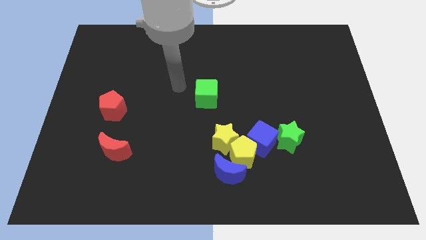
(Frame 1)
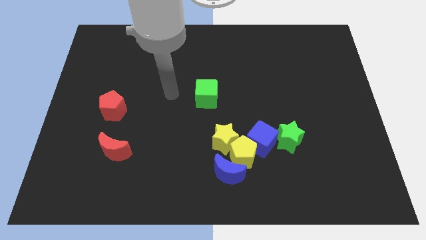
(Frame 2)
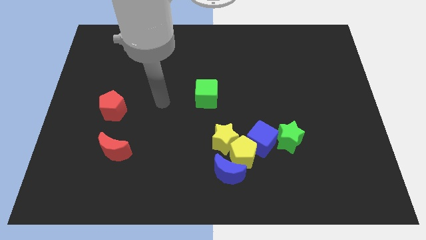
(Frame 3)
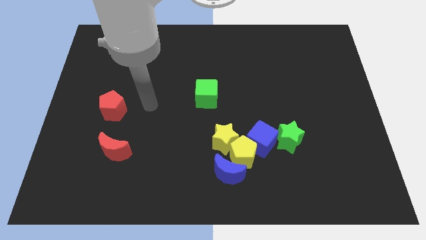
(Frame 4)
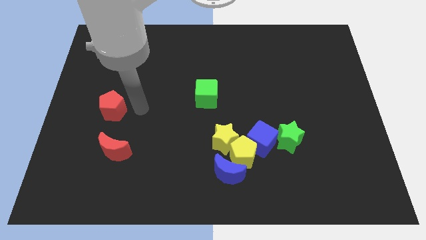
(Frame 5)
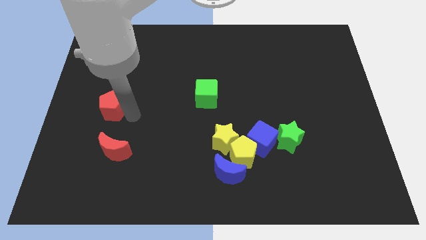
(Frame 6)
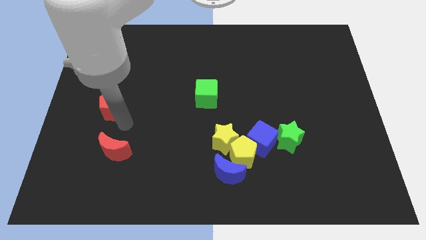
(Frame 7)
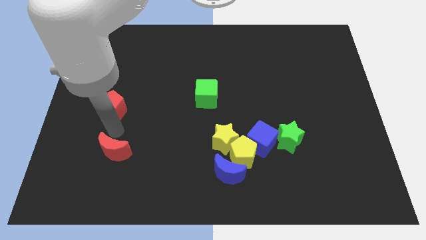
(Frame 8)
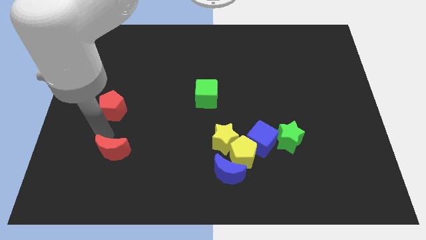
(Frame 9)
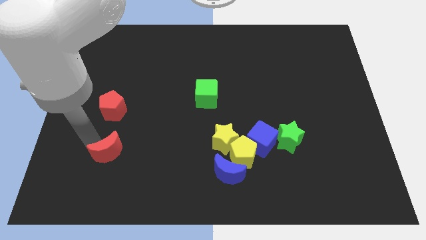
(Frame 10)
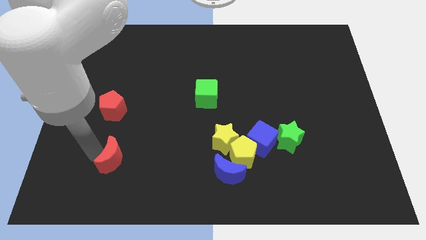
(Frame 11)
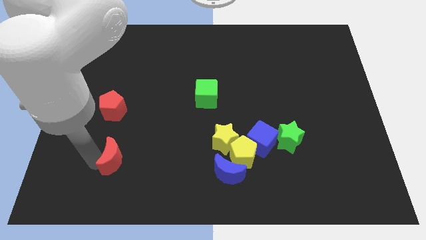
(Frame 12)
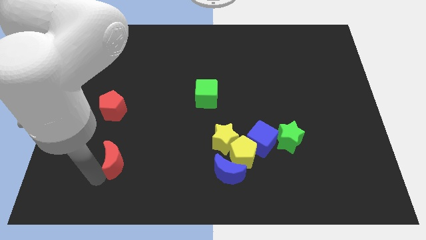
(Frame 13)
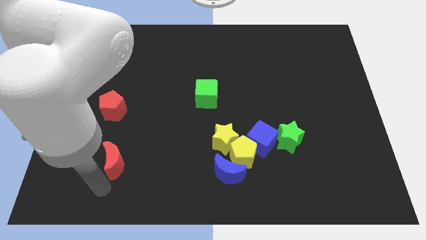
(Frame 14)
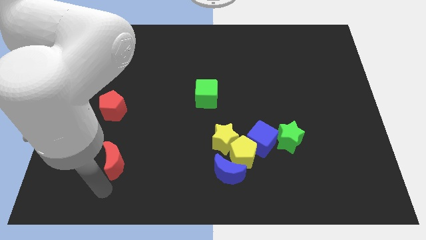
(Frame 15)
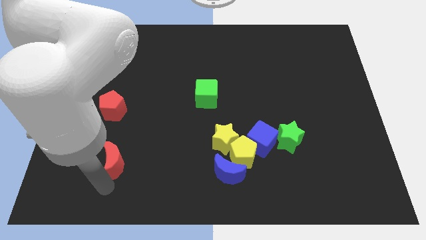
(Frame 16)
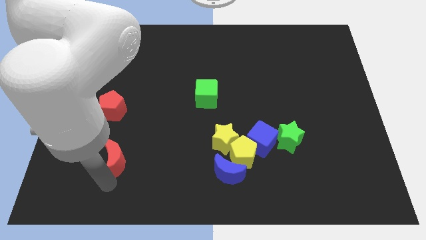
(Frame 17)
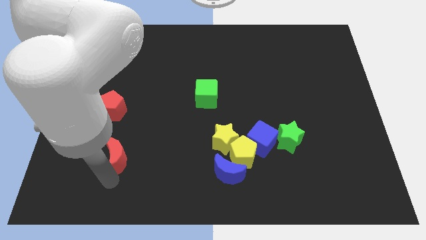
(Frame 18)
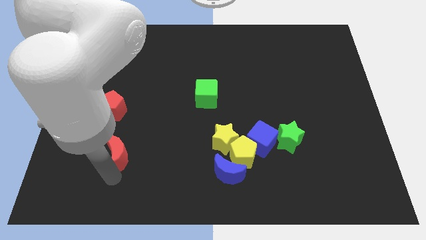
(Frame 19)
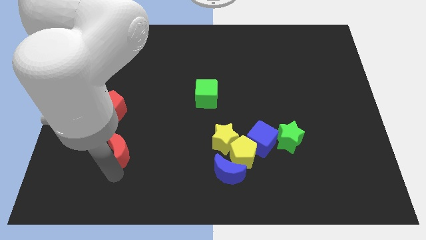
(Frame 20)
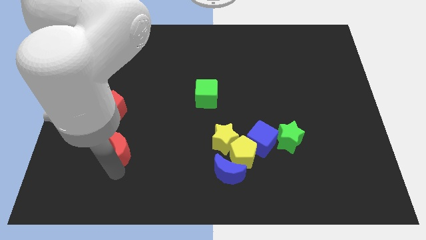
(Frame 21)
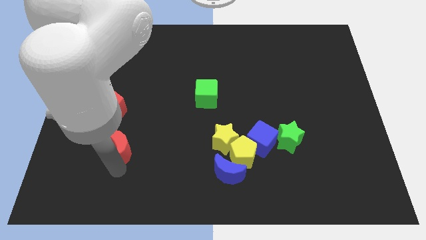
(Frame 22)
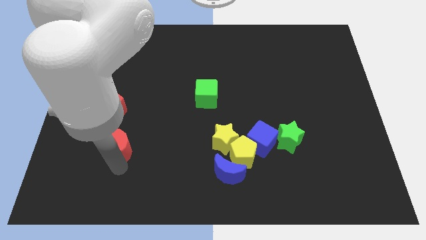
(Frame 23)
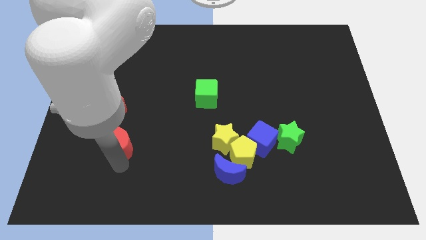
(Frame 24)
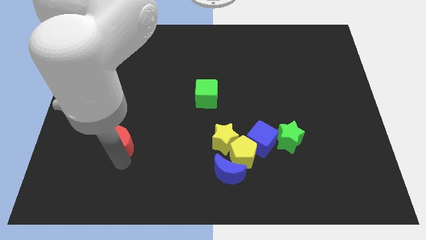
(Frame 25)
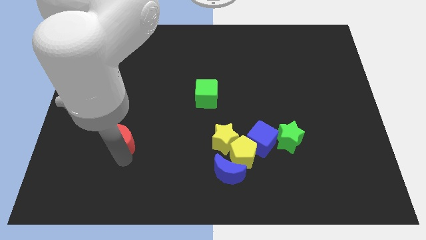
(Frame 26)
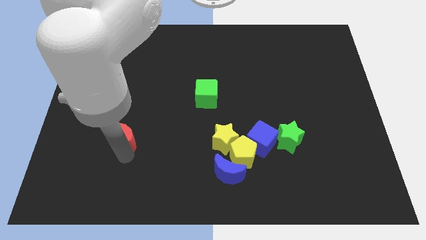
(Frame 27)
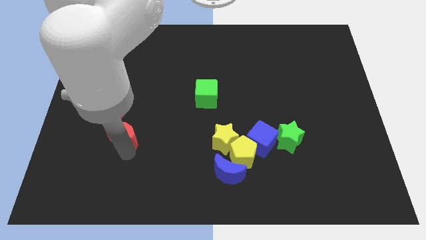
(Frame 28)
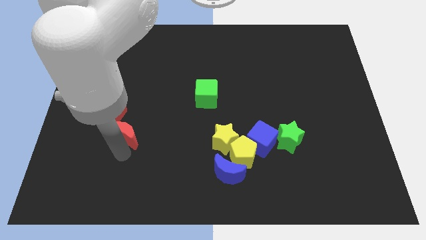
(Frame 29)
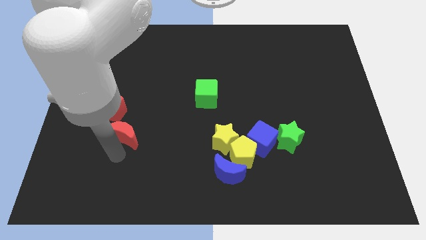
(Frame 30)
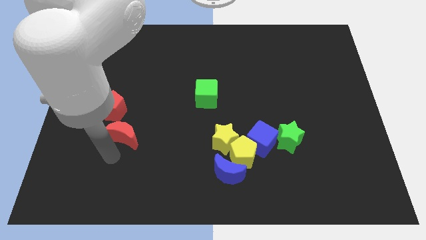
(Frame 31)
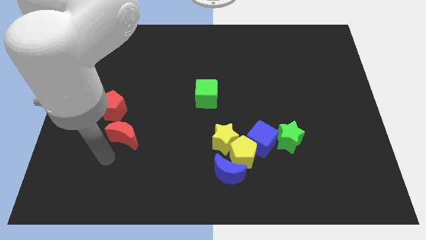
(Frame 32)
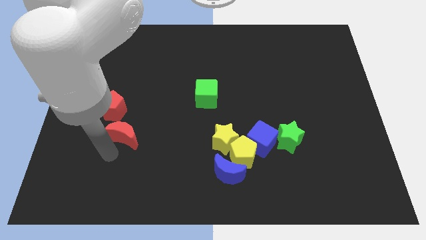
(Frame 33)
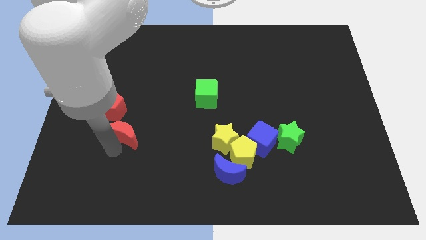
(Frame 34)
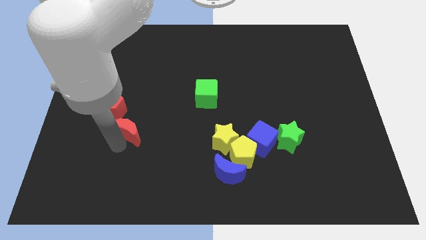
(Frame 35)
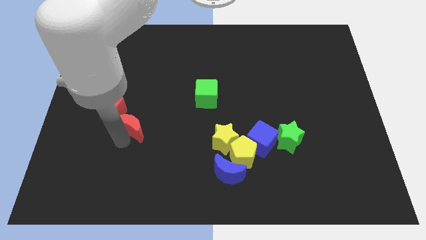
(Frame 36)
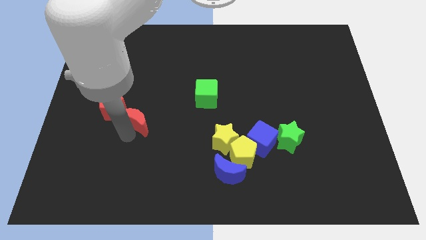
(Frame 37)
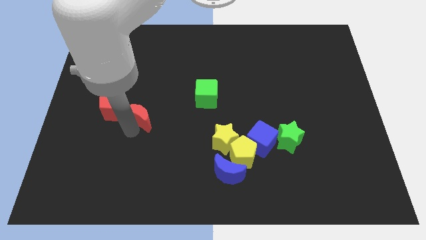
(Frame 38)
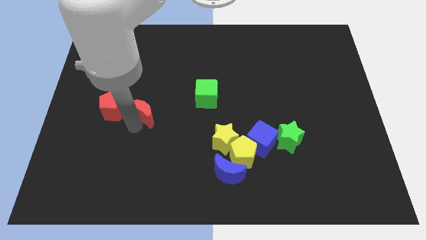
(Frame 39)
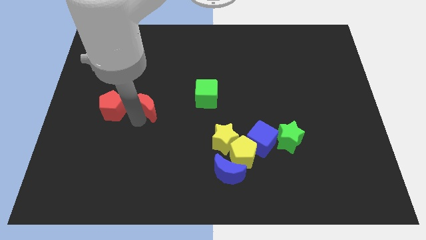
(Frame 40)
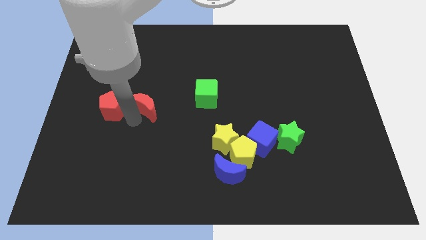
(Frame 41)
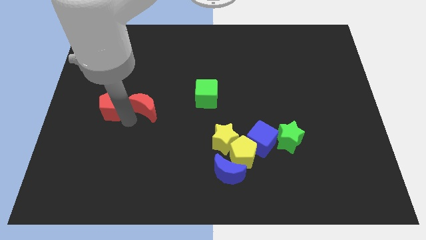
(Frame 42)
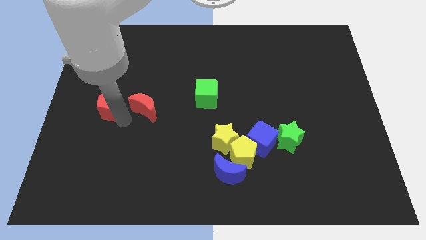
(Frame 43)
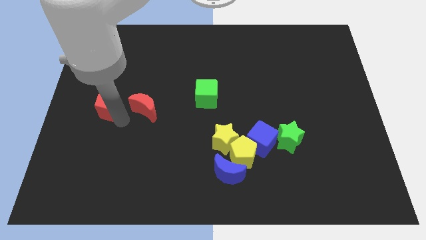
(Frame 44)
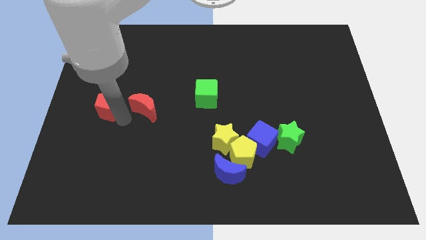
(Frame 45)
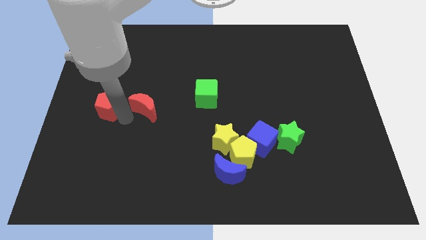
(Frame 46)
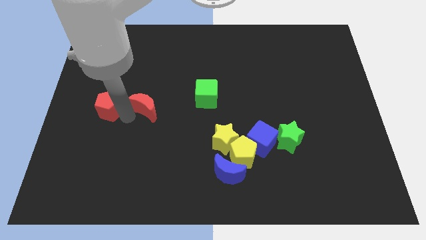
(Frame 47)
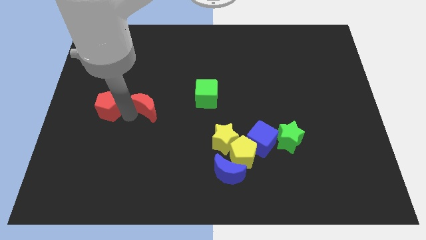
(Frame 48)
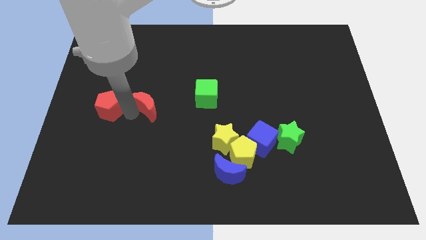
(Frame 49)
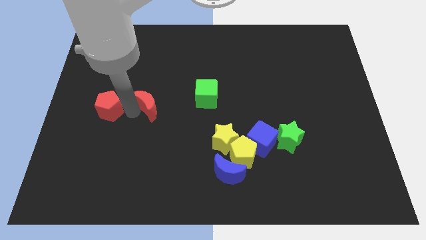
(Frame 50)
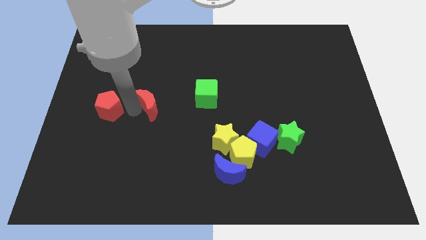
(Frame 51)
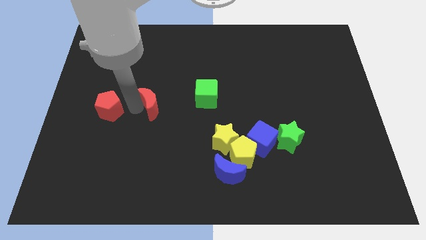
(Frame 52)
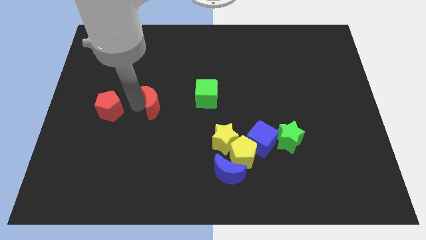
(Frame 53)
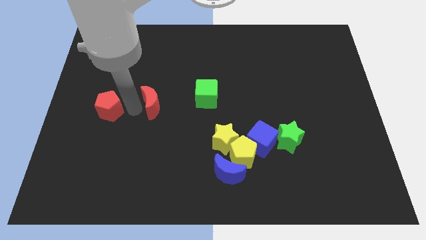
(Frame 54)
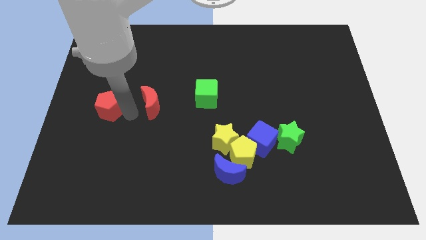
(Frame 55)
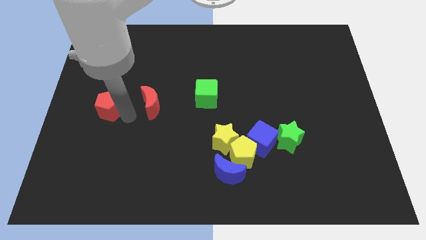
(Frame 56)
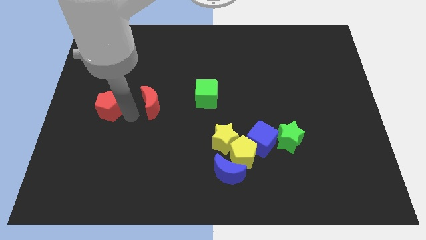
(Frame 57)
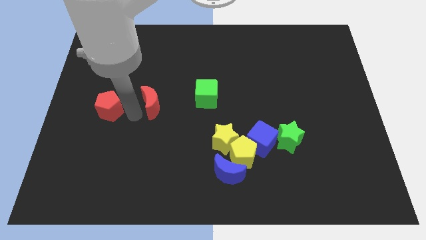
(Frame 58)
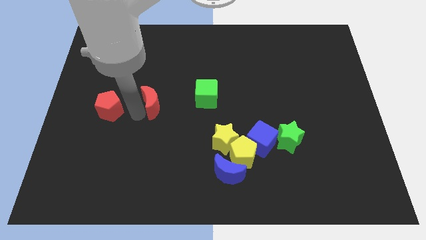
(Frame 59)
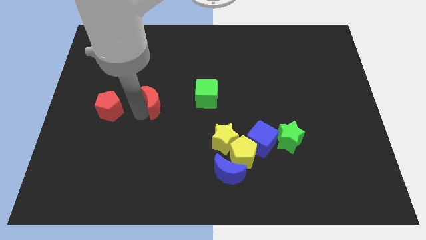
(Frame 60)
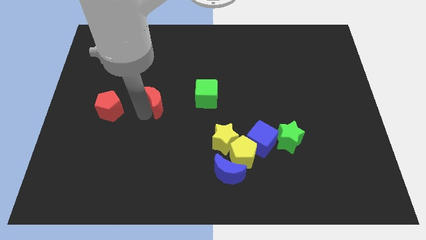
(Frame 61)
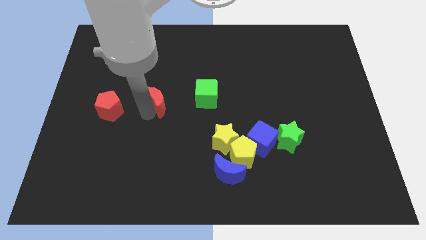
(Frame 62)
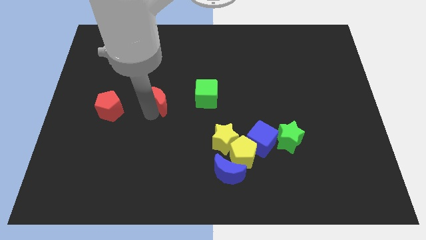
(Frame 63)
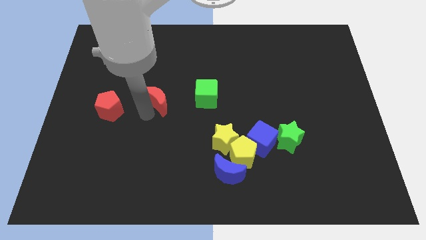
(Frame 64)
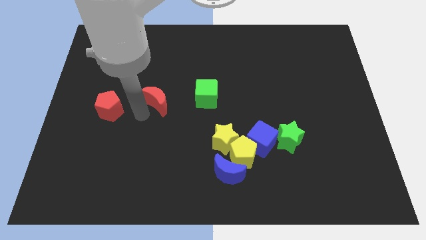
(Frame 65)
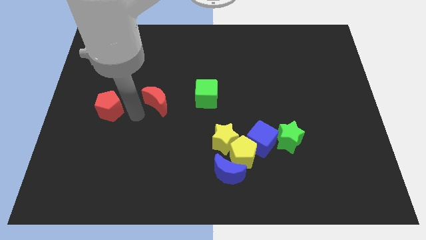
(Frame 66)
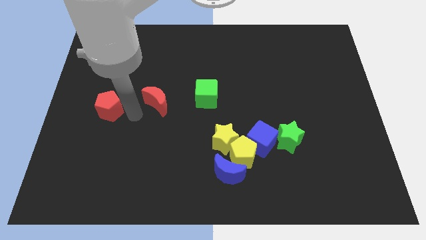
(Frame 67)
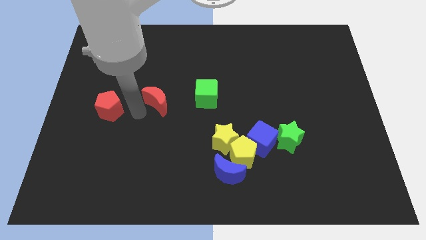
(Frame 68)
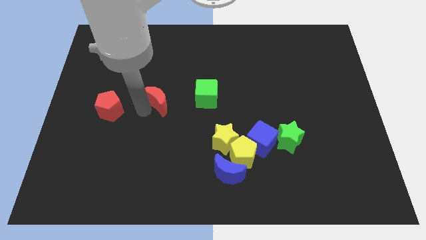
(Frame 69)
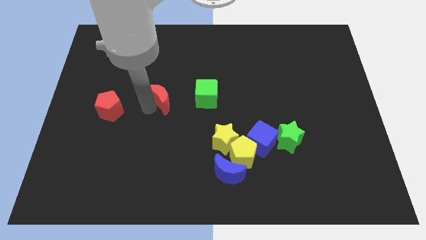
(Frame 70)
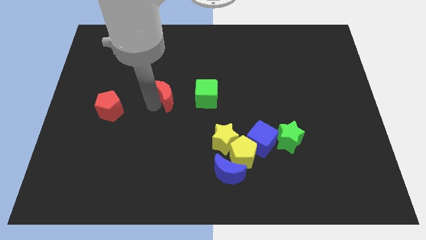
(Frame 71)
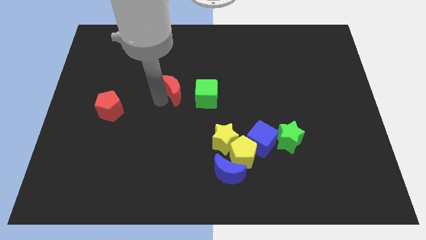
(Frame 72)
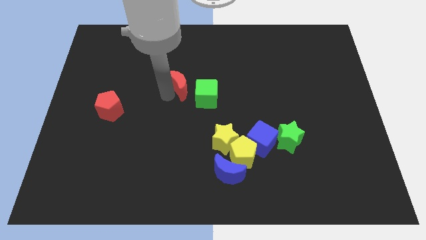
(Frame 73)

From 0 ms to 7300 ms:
move the red moon upwards and then right

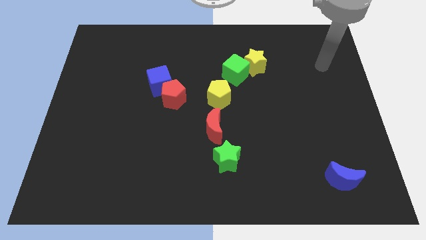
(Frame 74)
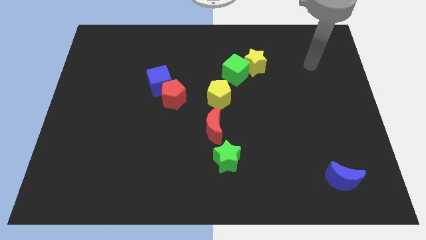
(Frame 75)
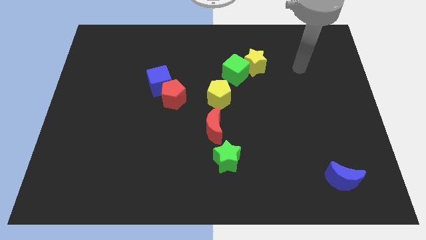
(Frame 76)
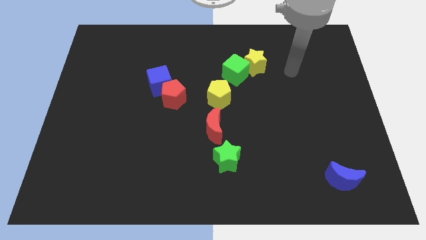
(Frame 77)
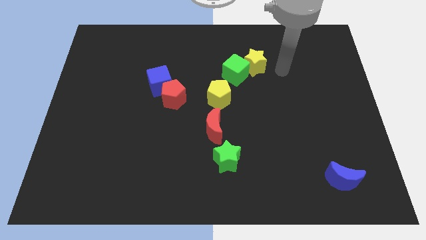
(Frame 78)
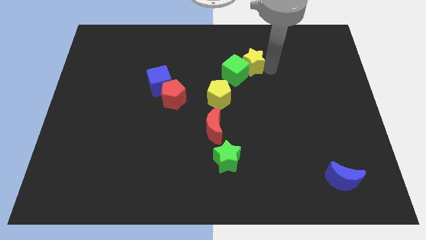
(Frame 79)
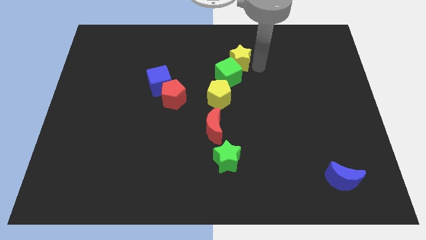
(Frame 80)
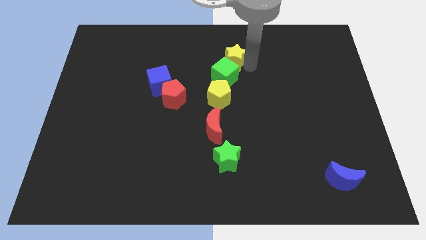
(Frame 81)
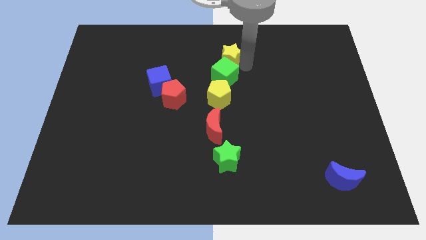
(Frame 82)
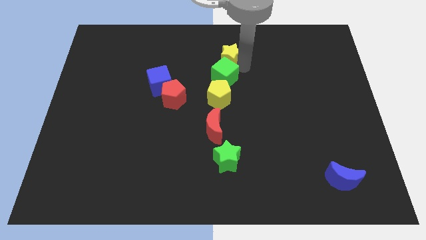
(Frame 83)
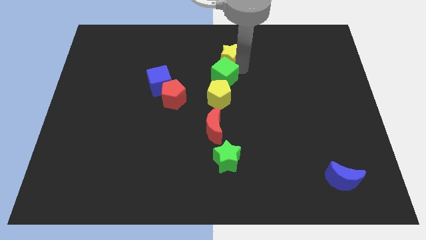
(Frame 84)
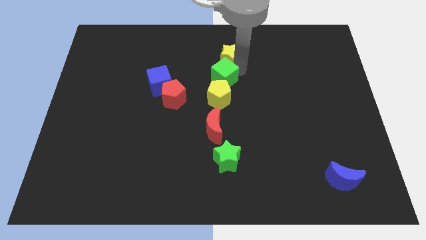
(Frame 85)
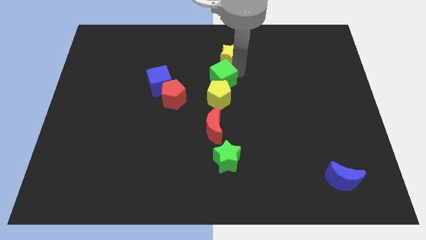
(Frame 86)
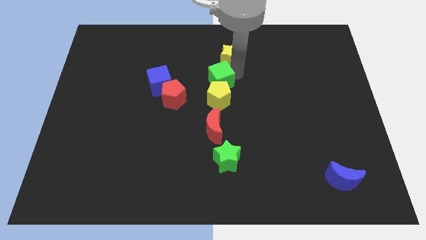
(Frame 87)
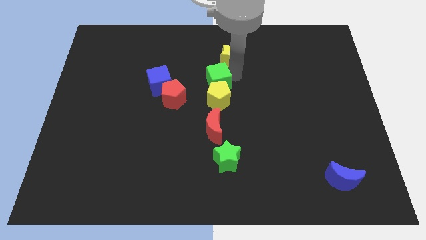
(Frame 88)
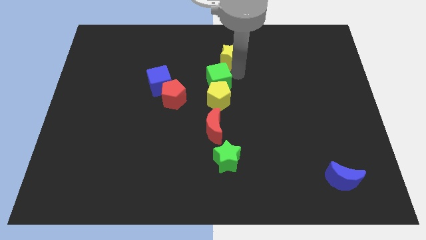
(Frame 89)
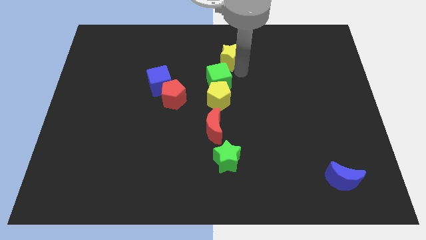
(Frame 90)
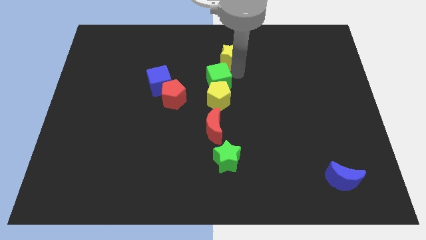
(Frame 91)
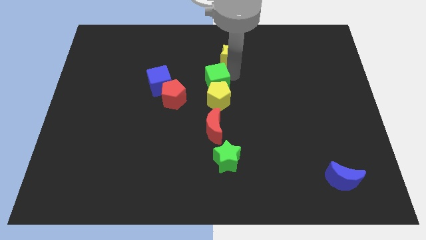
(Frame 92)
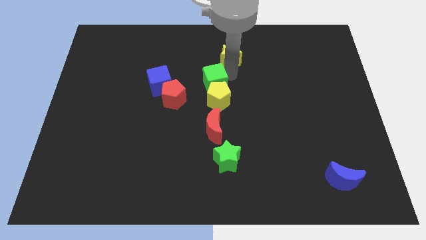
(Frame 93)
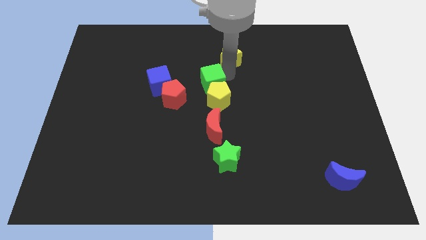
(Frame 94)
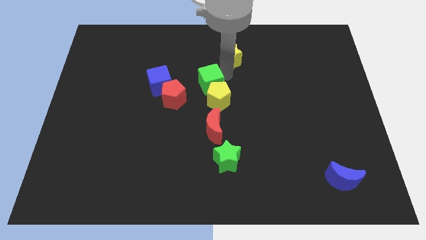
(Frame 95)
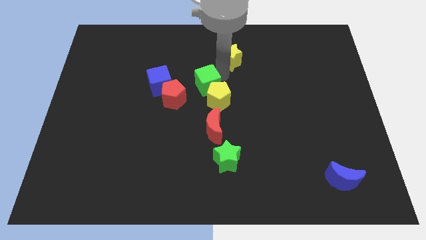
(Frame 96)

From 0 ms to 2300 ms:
slightly move the green cube downwards and to the left diagonally
